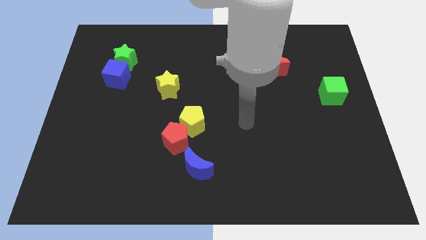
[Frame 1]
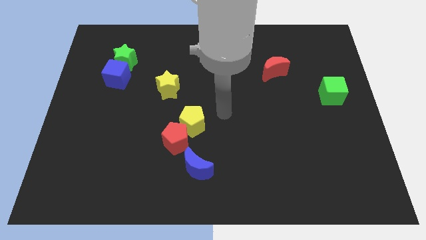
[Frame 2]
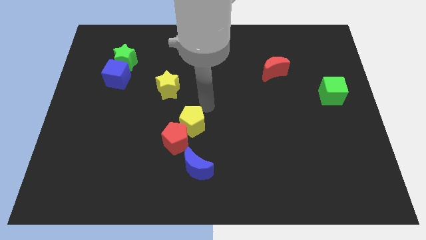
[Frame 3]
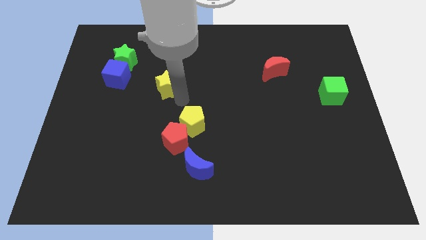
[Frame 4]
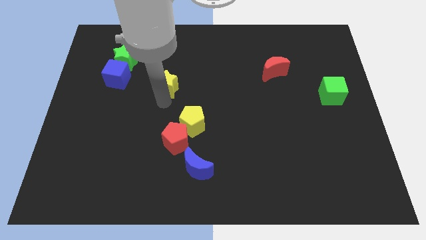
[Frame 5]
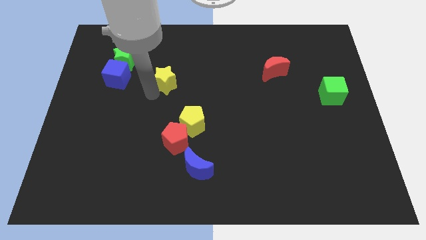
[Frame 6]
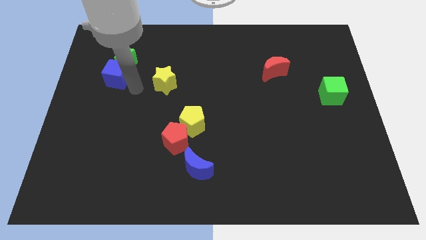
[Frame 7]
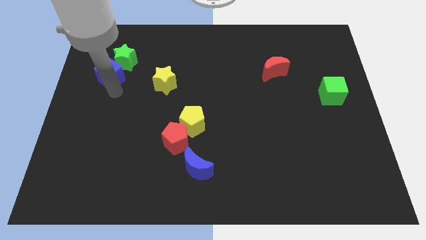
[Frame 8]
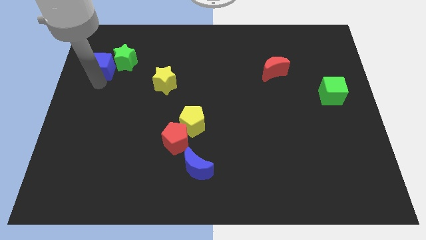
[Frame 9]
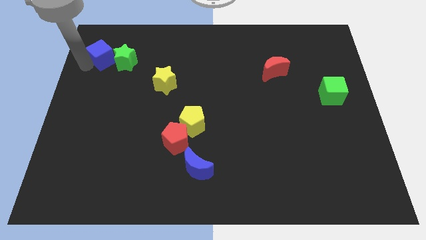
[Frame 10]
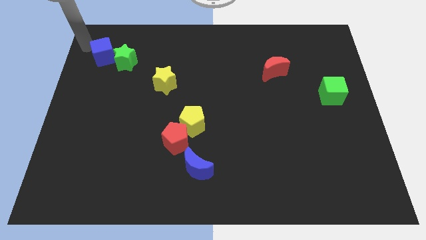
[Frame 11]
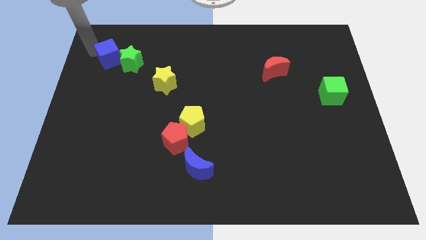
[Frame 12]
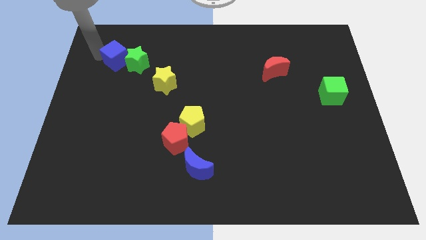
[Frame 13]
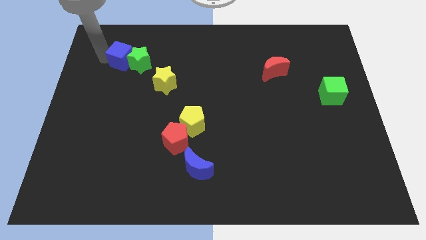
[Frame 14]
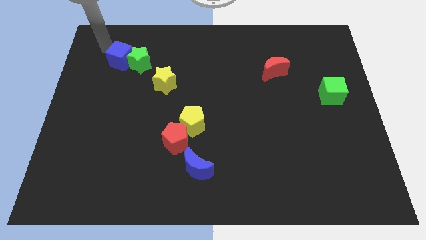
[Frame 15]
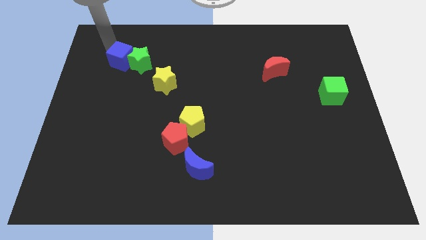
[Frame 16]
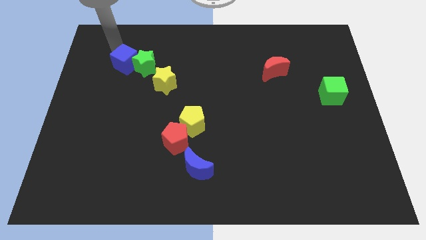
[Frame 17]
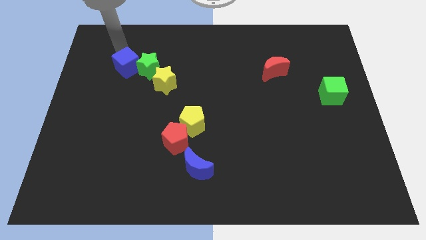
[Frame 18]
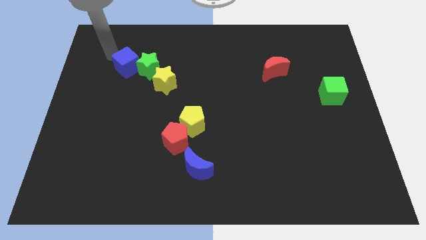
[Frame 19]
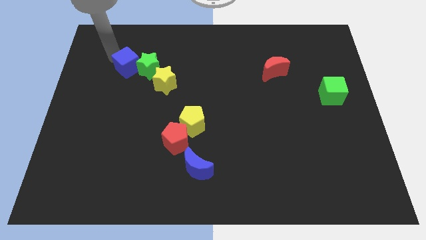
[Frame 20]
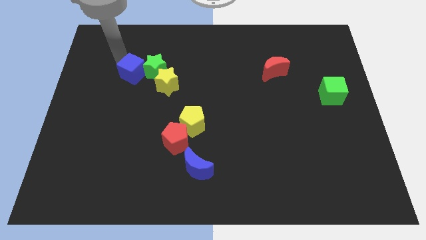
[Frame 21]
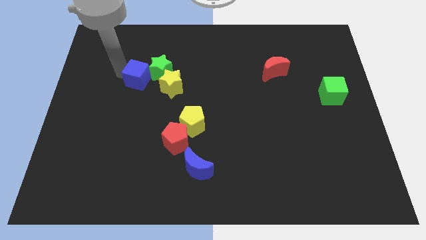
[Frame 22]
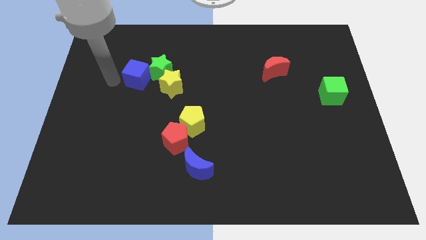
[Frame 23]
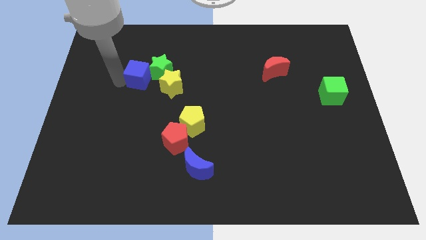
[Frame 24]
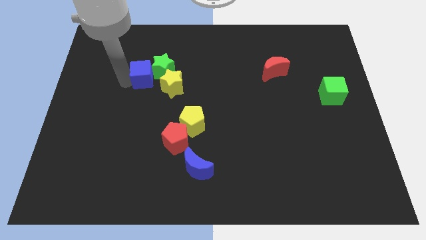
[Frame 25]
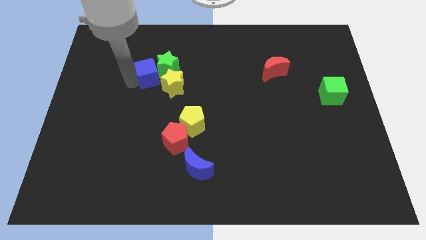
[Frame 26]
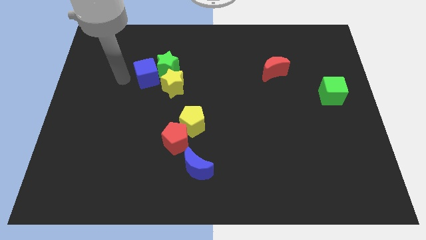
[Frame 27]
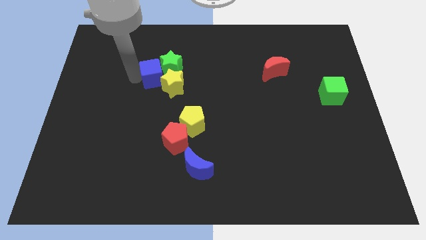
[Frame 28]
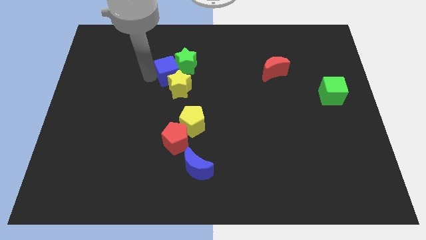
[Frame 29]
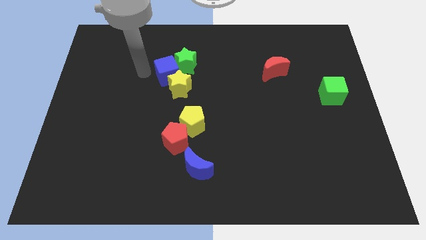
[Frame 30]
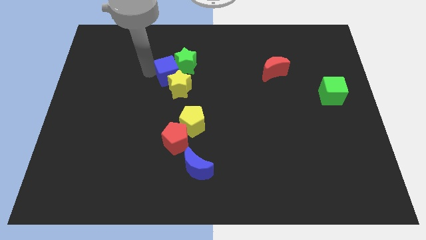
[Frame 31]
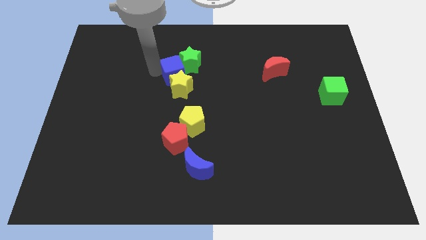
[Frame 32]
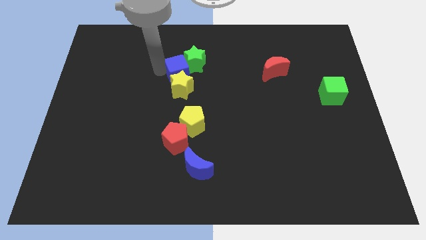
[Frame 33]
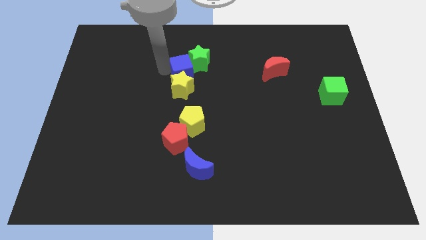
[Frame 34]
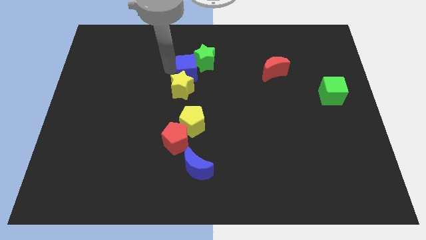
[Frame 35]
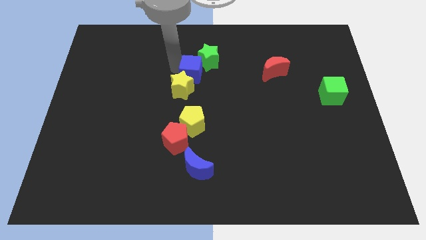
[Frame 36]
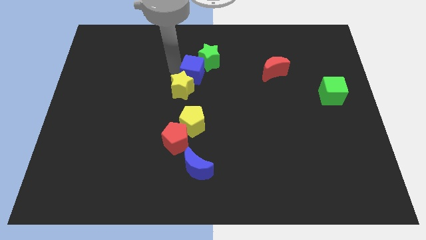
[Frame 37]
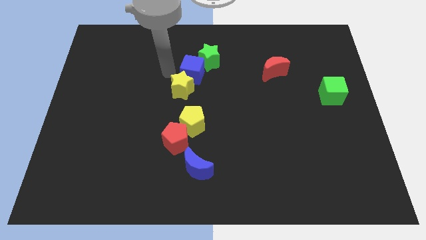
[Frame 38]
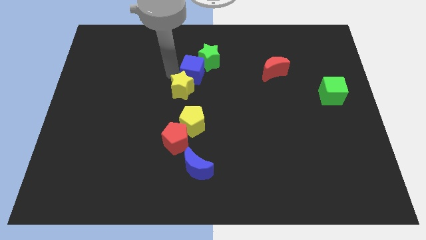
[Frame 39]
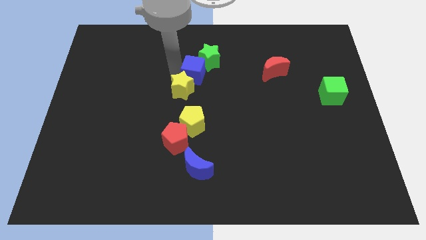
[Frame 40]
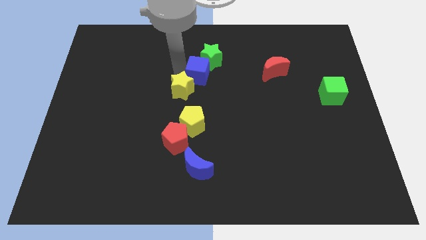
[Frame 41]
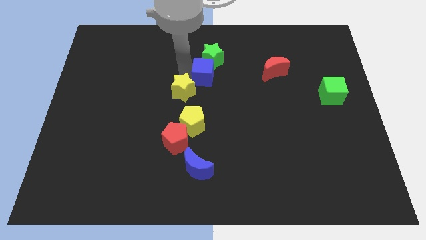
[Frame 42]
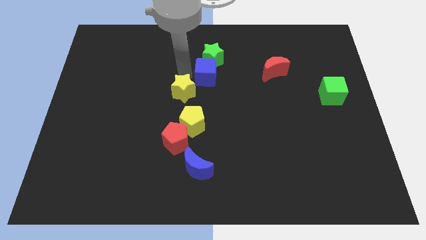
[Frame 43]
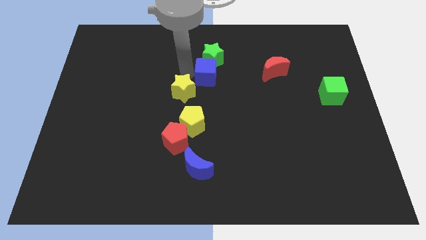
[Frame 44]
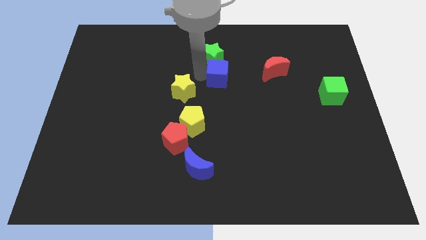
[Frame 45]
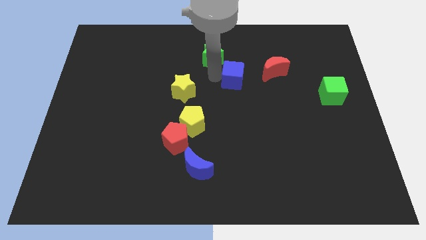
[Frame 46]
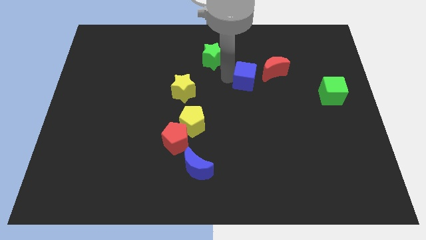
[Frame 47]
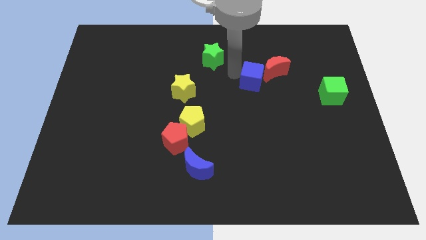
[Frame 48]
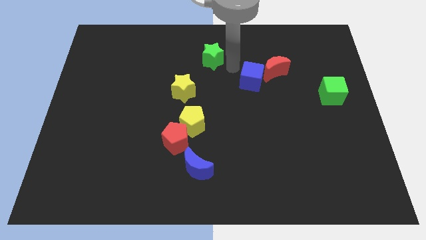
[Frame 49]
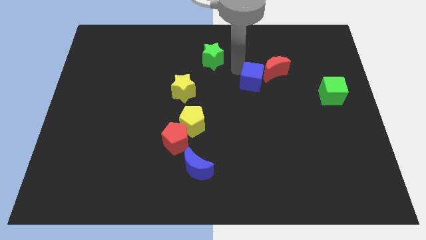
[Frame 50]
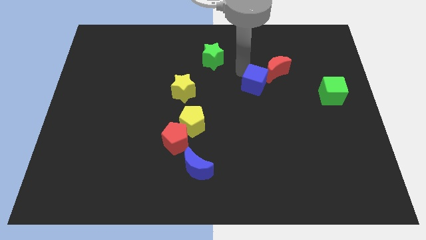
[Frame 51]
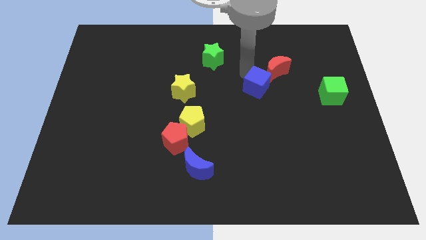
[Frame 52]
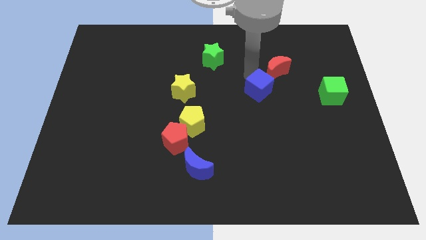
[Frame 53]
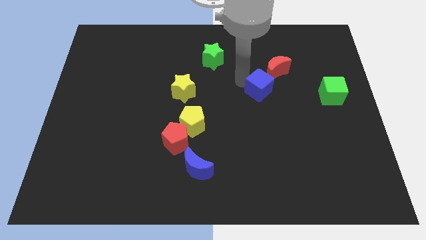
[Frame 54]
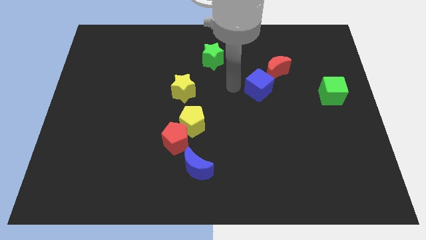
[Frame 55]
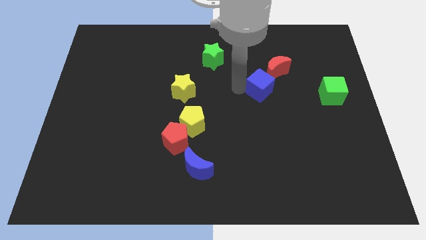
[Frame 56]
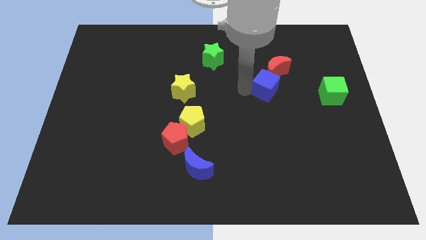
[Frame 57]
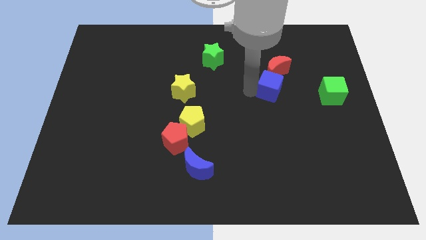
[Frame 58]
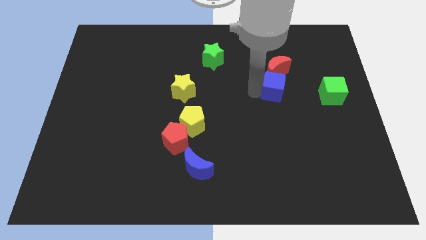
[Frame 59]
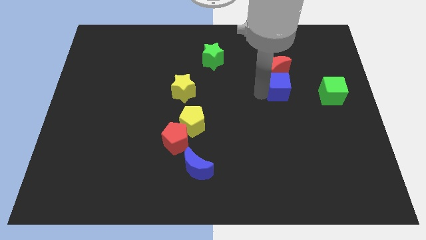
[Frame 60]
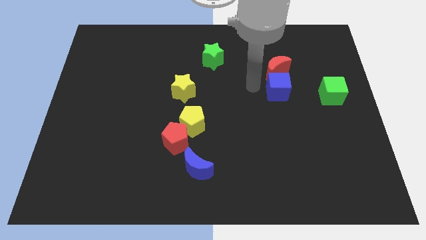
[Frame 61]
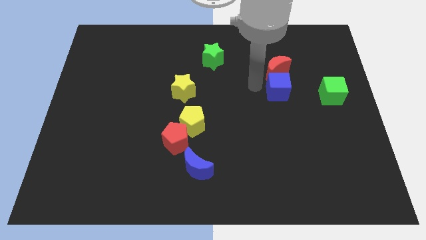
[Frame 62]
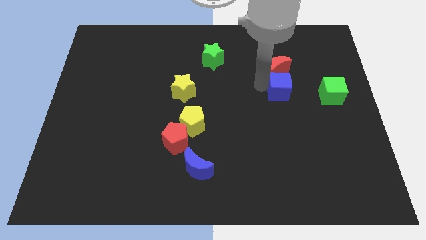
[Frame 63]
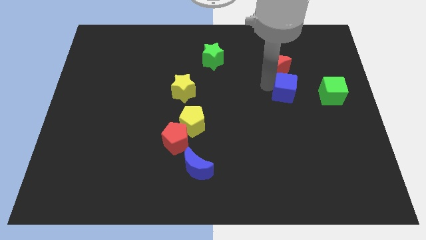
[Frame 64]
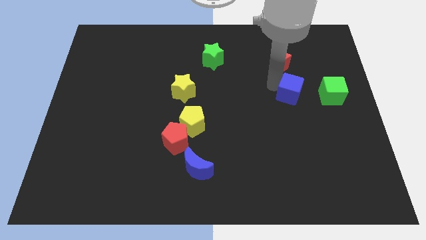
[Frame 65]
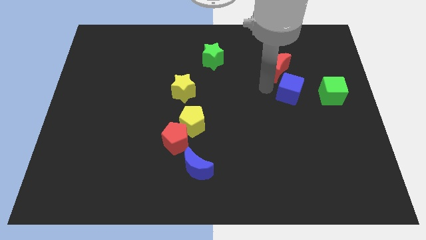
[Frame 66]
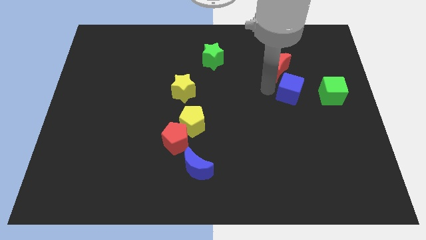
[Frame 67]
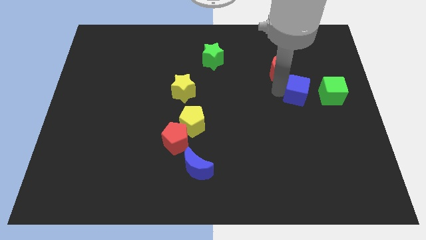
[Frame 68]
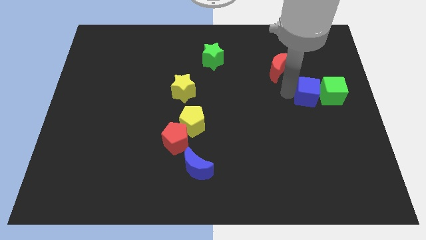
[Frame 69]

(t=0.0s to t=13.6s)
move the blue cube to the green cube

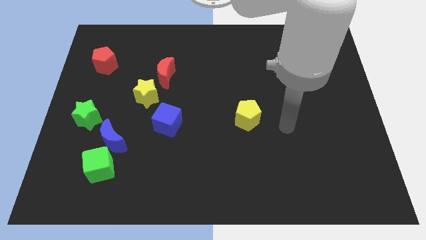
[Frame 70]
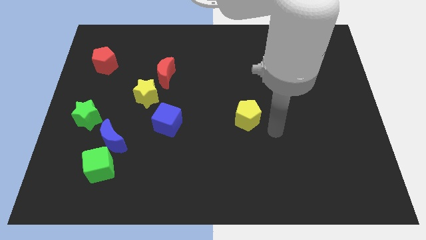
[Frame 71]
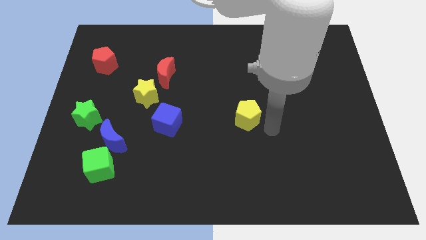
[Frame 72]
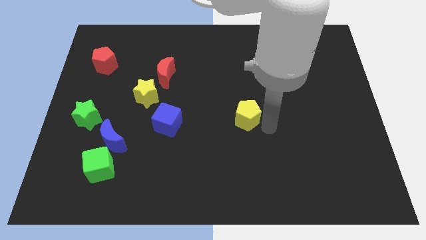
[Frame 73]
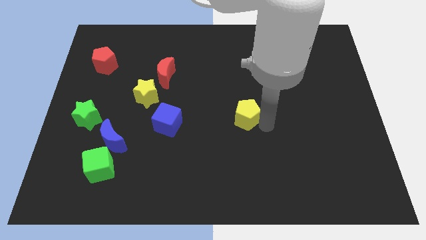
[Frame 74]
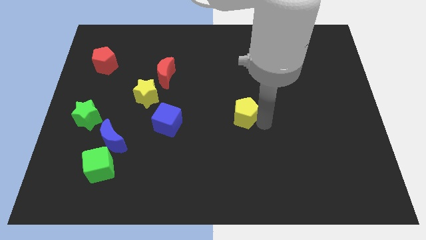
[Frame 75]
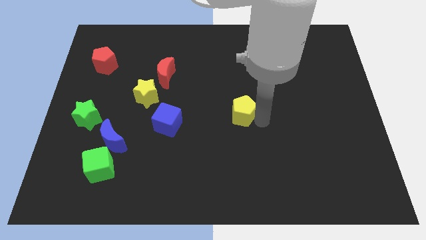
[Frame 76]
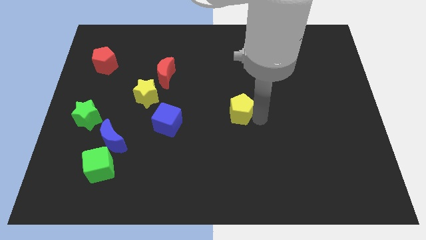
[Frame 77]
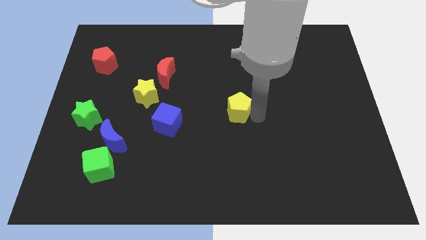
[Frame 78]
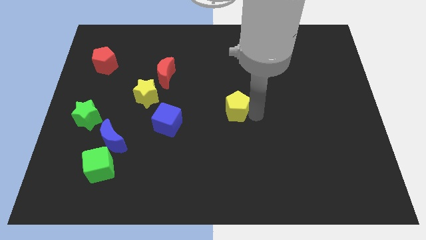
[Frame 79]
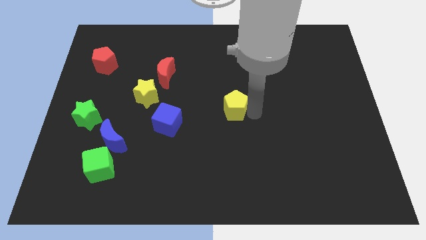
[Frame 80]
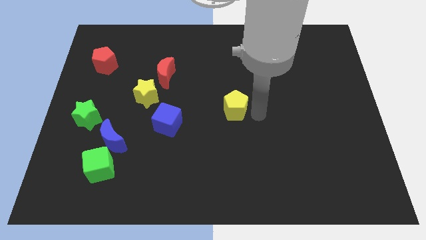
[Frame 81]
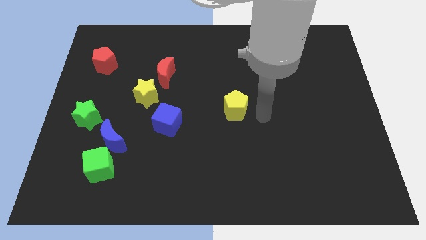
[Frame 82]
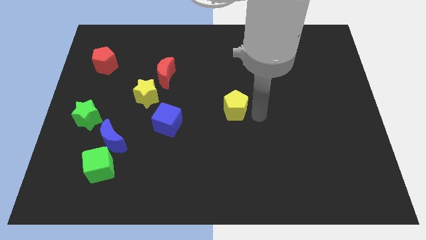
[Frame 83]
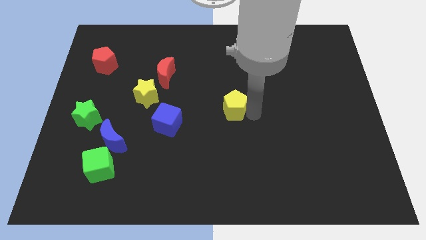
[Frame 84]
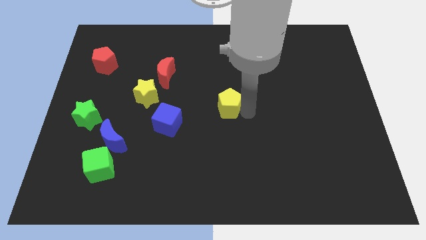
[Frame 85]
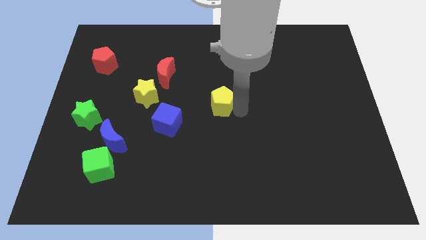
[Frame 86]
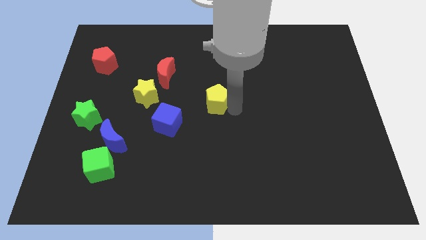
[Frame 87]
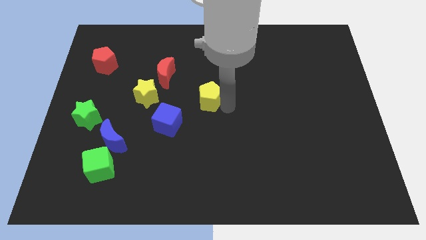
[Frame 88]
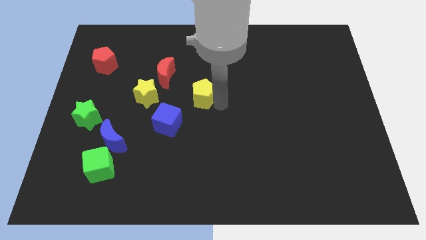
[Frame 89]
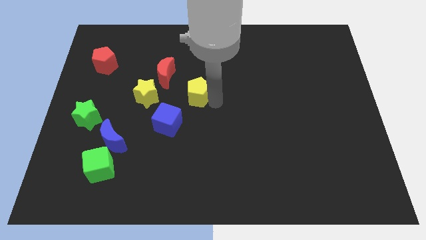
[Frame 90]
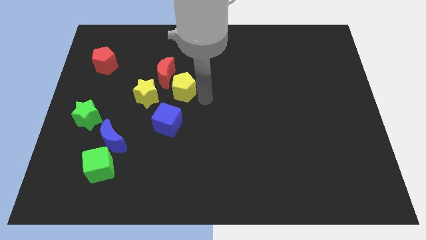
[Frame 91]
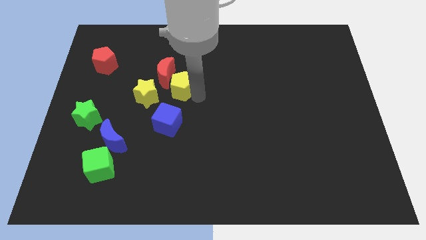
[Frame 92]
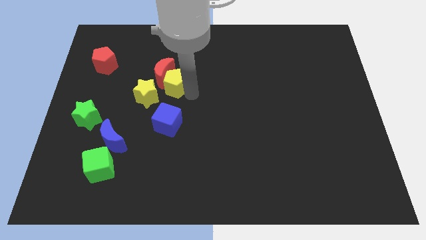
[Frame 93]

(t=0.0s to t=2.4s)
put the yellow pentagon close to the red moon
